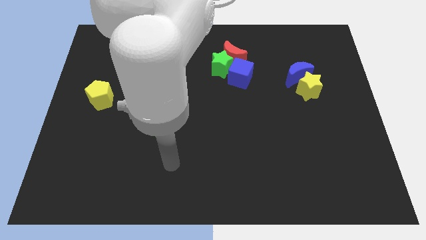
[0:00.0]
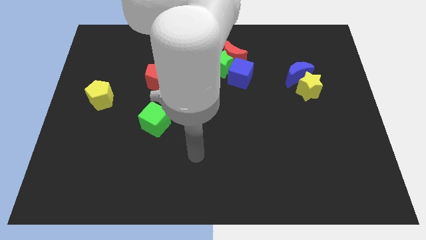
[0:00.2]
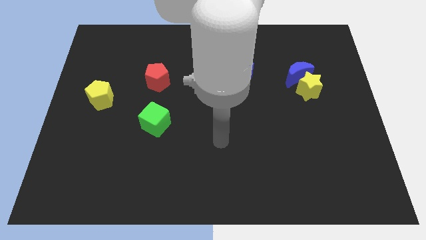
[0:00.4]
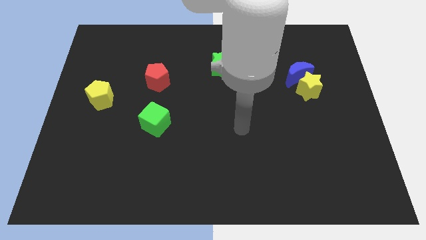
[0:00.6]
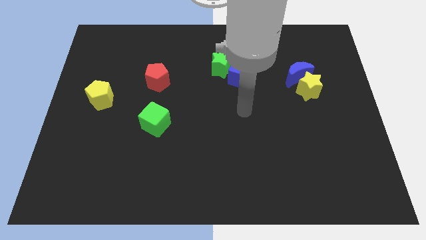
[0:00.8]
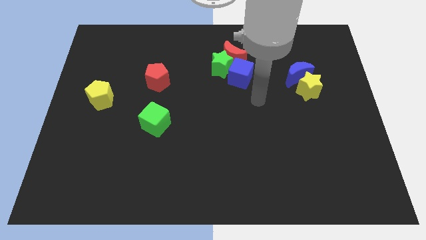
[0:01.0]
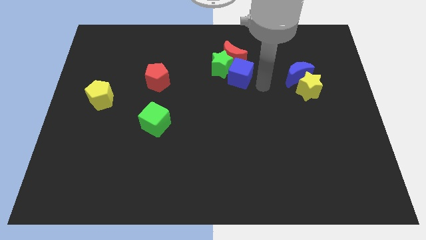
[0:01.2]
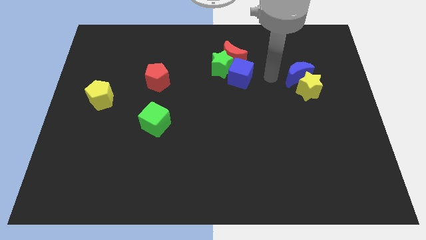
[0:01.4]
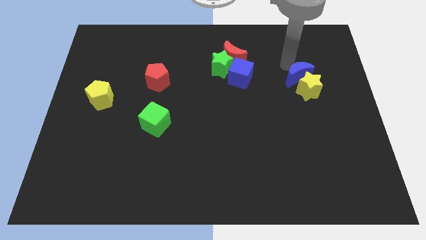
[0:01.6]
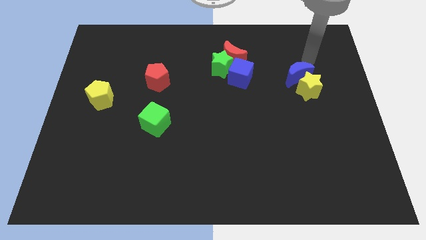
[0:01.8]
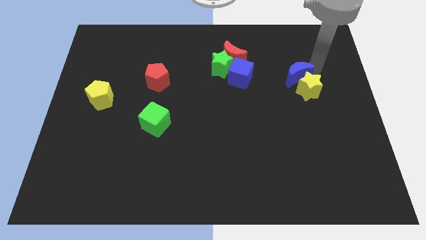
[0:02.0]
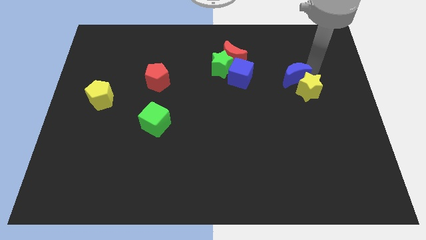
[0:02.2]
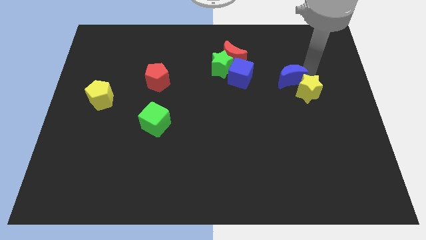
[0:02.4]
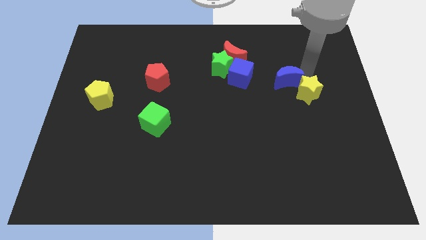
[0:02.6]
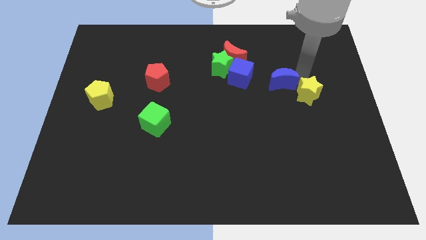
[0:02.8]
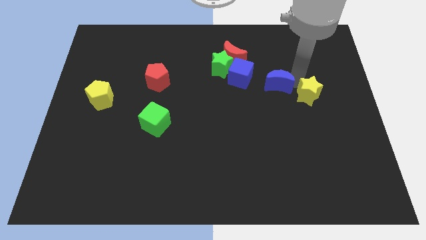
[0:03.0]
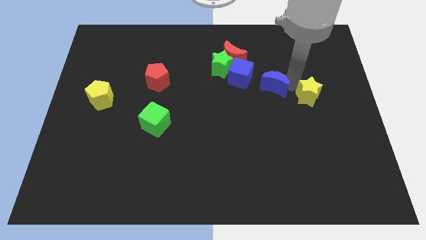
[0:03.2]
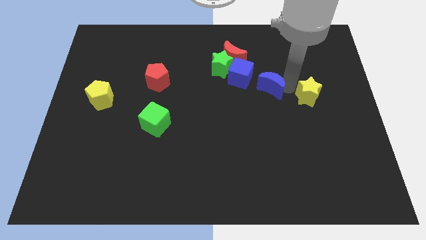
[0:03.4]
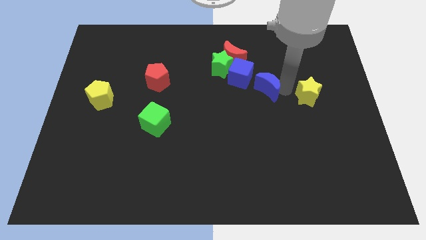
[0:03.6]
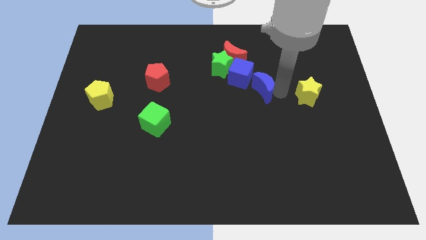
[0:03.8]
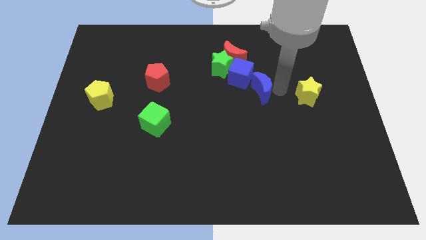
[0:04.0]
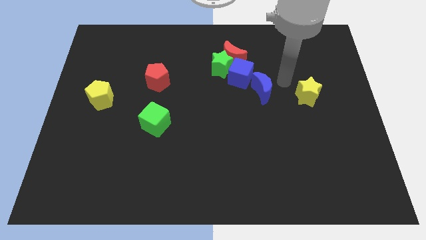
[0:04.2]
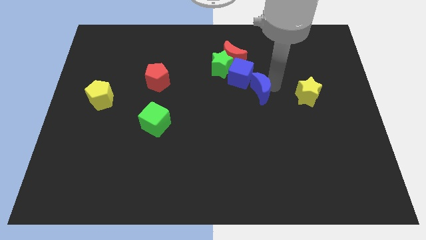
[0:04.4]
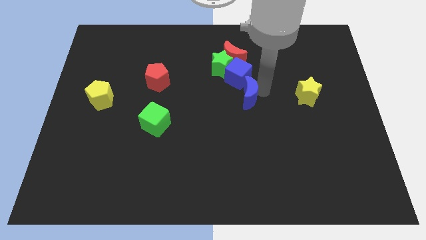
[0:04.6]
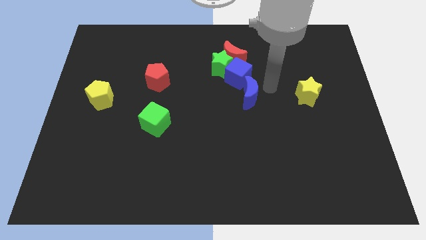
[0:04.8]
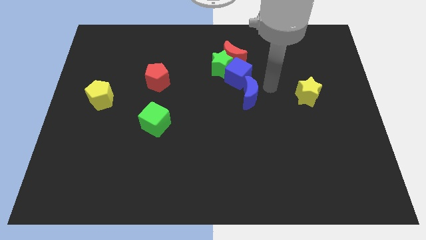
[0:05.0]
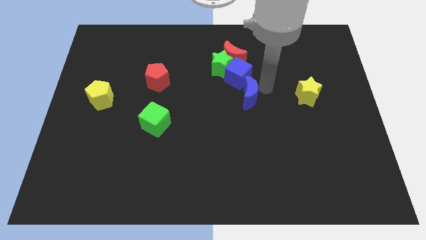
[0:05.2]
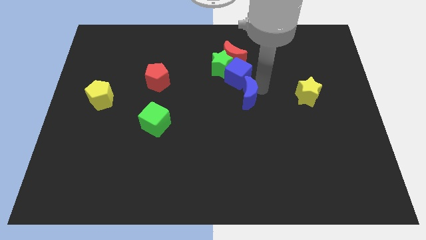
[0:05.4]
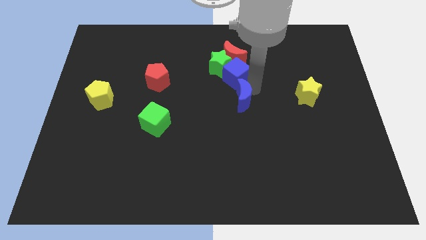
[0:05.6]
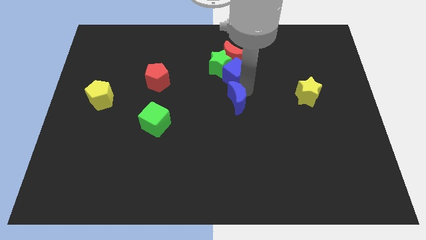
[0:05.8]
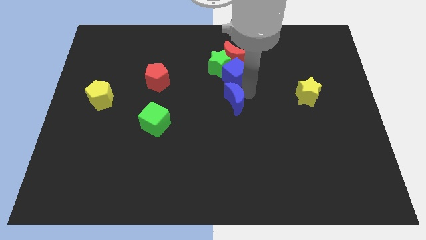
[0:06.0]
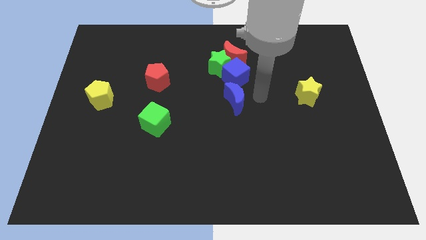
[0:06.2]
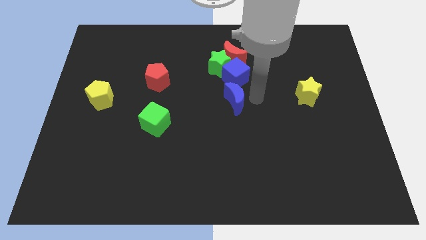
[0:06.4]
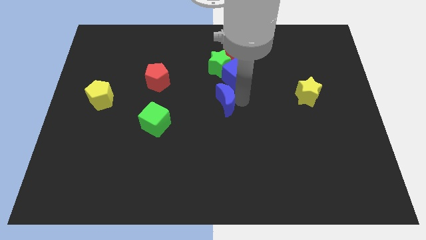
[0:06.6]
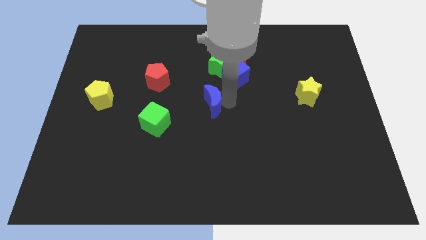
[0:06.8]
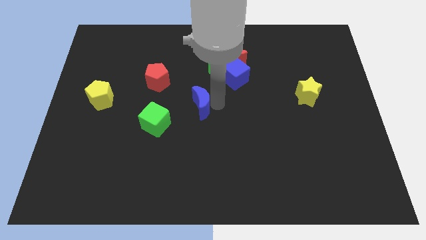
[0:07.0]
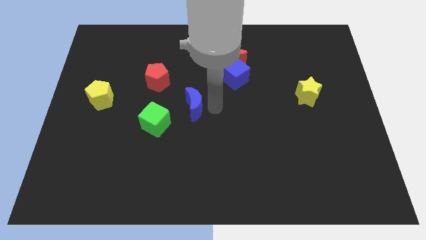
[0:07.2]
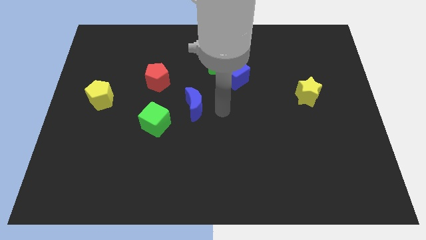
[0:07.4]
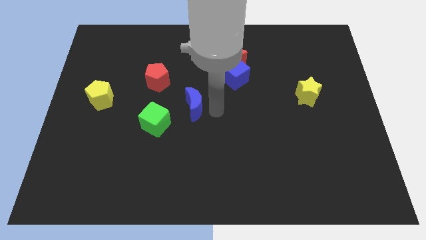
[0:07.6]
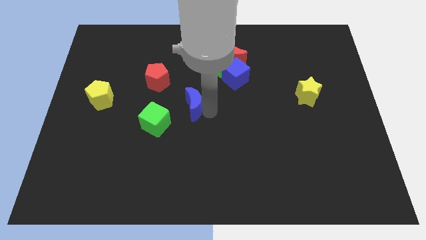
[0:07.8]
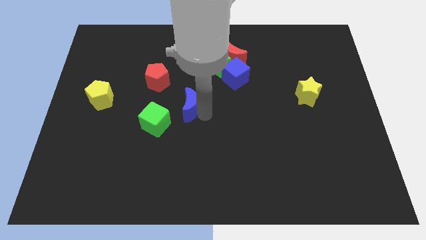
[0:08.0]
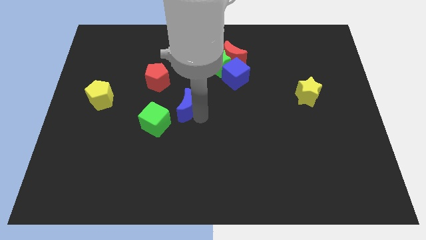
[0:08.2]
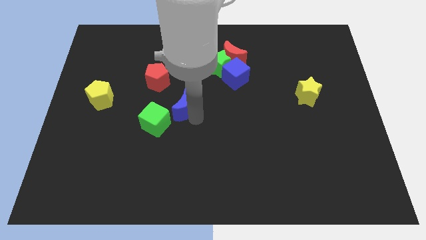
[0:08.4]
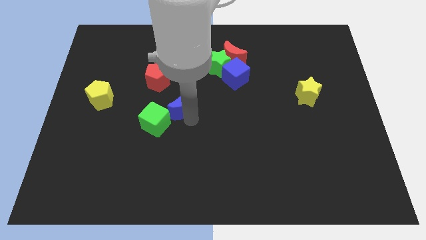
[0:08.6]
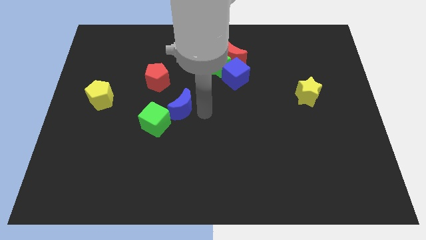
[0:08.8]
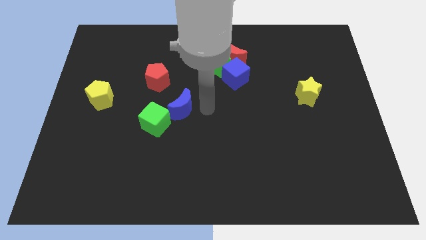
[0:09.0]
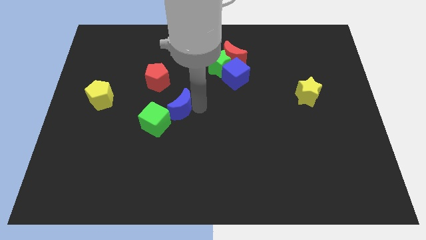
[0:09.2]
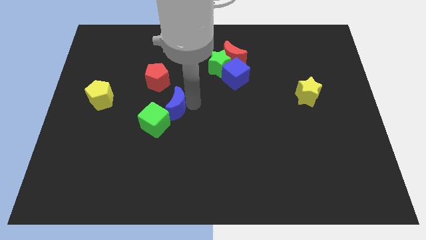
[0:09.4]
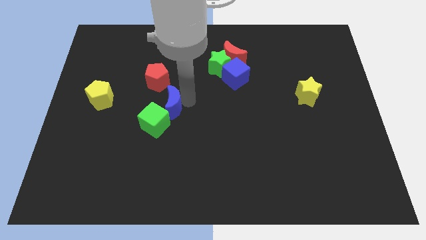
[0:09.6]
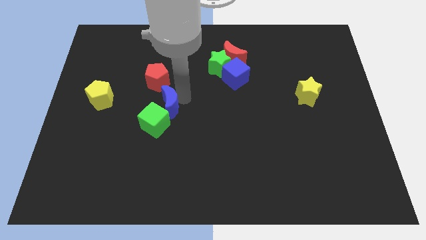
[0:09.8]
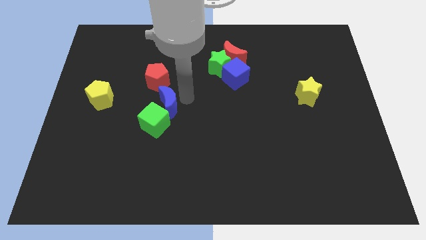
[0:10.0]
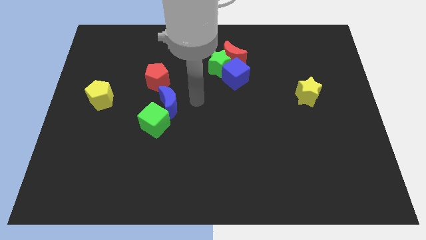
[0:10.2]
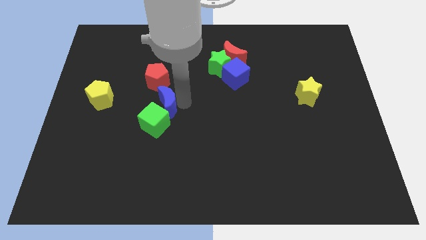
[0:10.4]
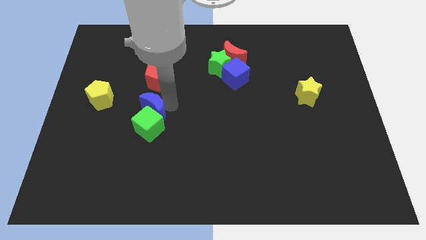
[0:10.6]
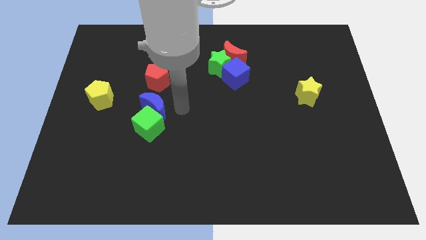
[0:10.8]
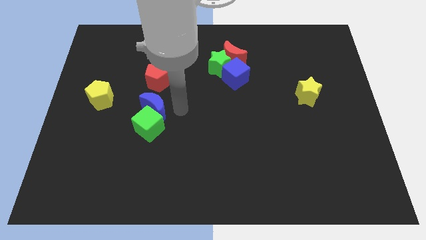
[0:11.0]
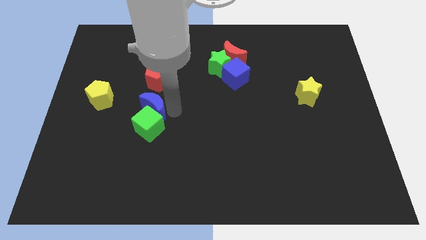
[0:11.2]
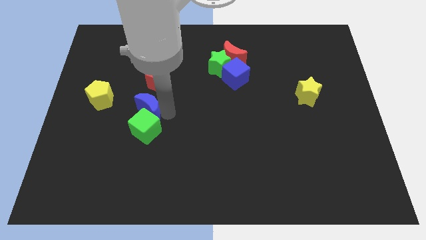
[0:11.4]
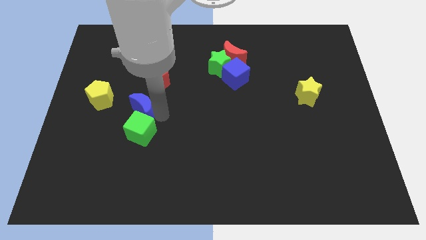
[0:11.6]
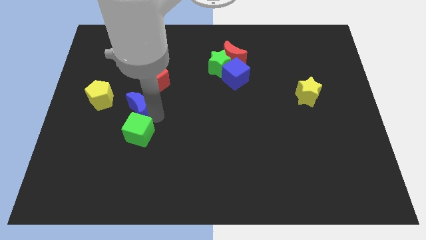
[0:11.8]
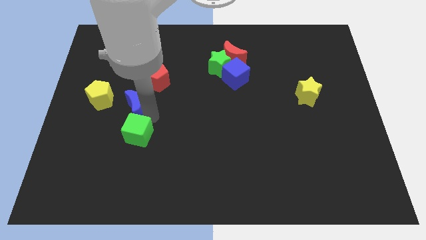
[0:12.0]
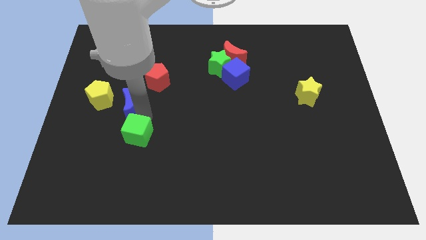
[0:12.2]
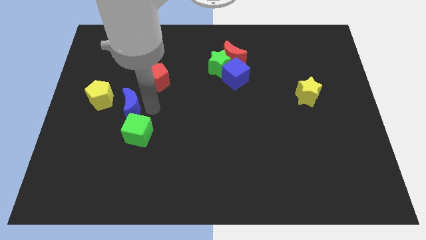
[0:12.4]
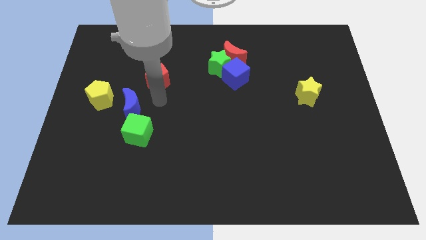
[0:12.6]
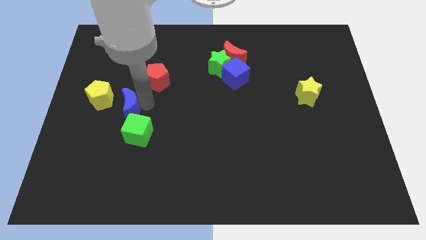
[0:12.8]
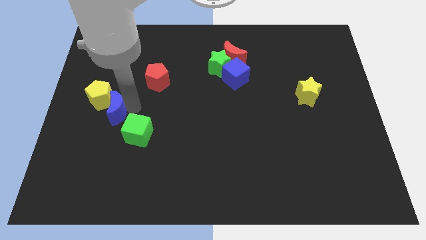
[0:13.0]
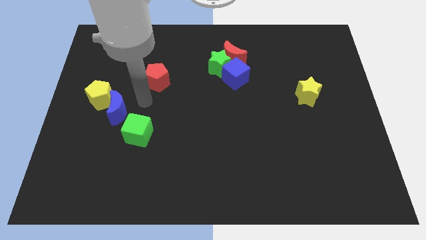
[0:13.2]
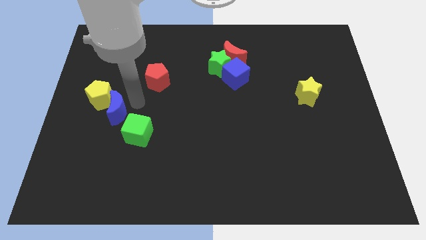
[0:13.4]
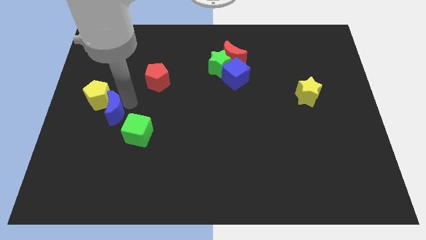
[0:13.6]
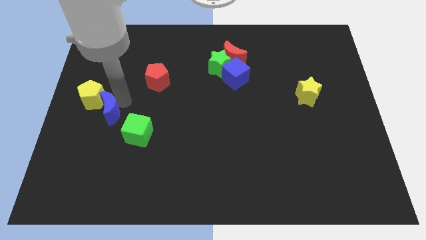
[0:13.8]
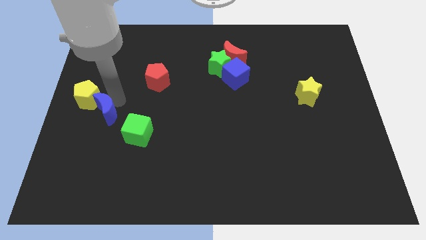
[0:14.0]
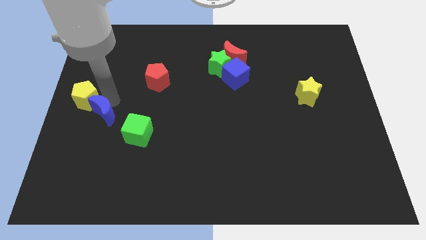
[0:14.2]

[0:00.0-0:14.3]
slide the blue moon to the center left
